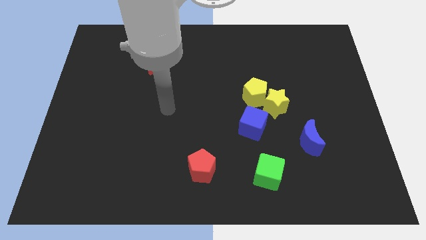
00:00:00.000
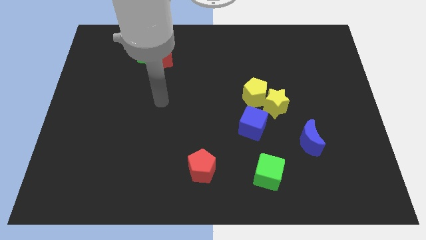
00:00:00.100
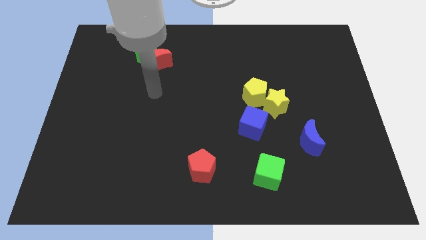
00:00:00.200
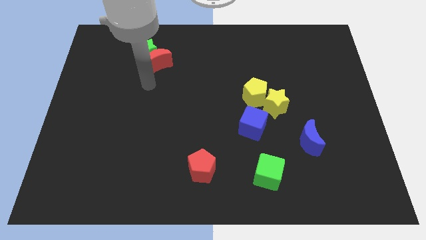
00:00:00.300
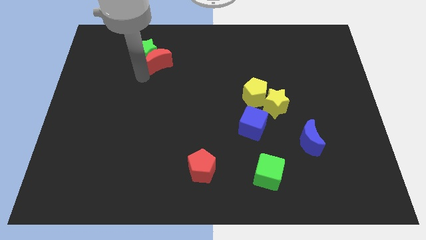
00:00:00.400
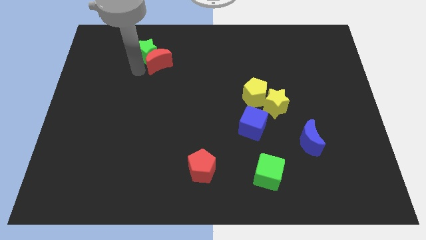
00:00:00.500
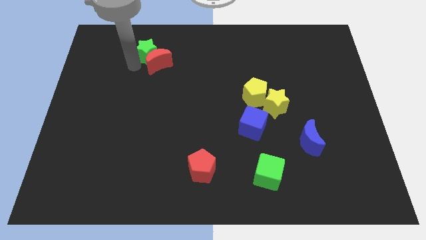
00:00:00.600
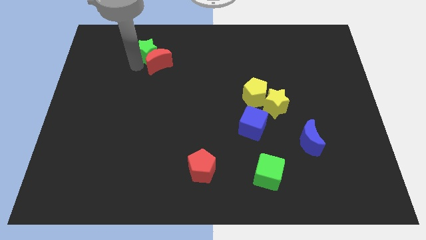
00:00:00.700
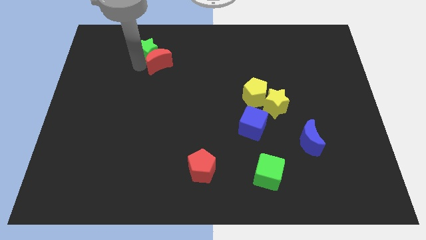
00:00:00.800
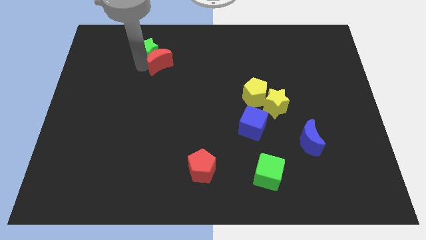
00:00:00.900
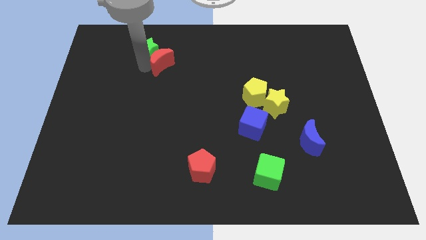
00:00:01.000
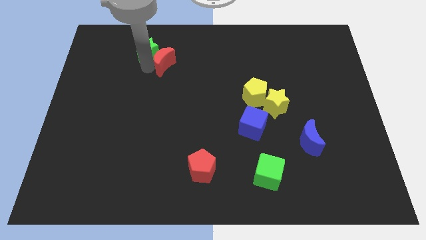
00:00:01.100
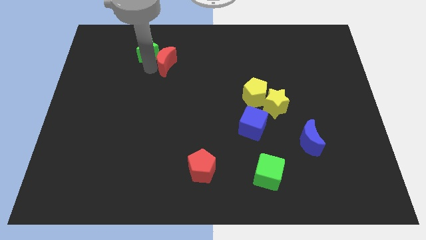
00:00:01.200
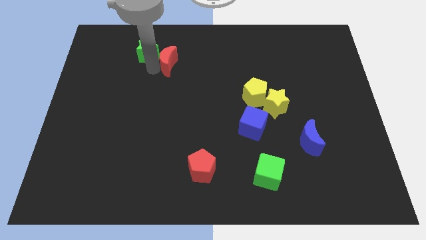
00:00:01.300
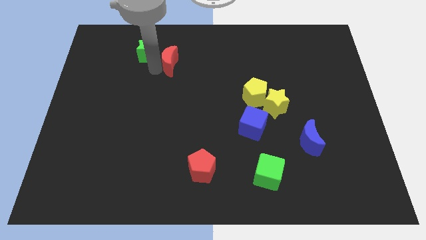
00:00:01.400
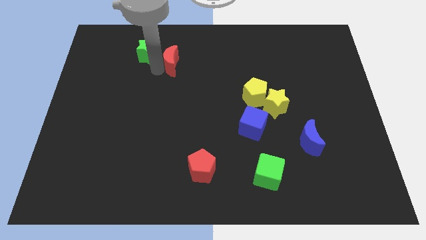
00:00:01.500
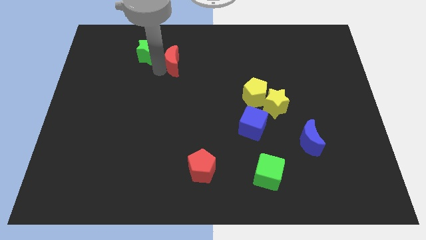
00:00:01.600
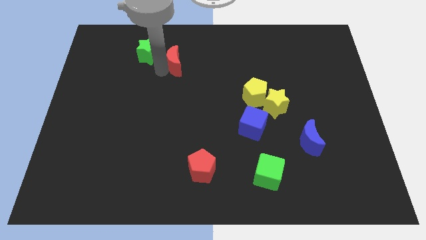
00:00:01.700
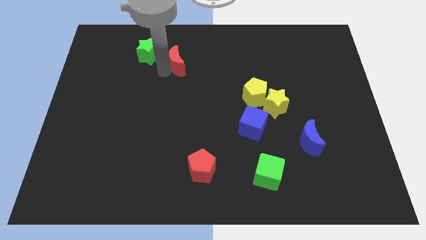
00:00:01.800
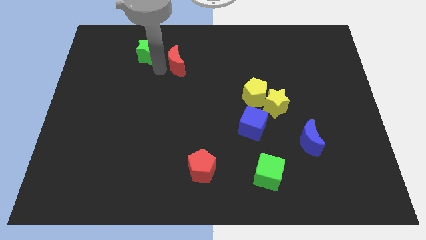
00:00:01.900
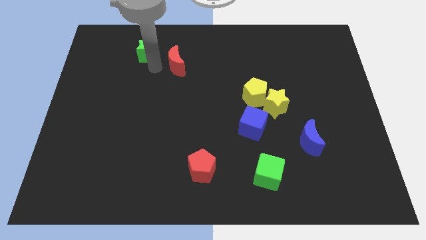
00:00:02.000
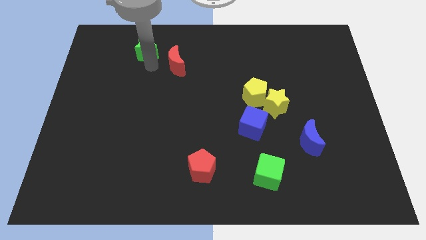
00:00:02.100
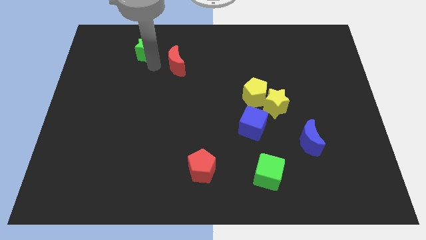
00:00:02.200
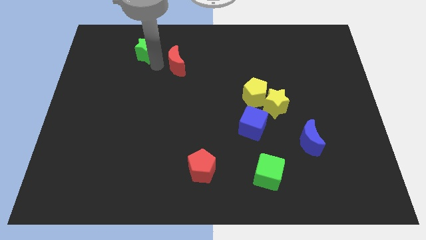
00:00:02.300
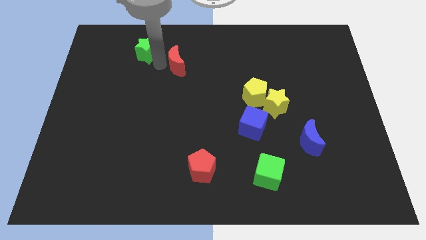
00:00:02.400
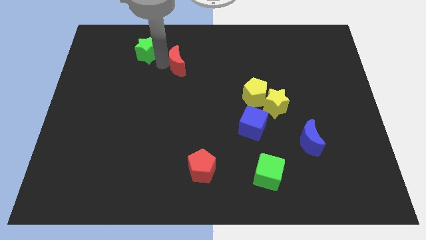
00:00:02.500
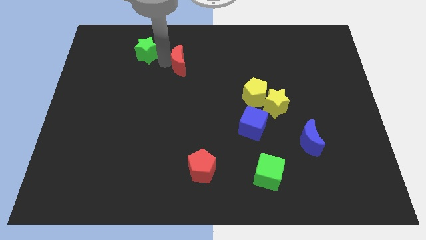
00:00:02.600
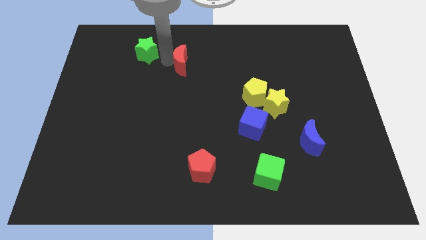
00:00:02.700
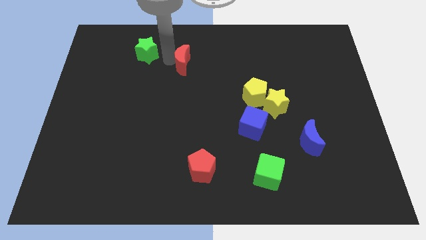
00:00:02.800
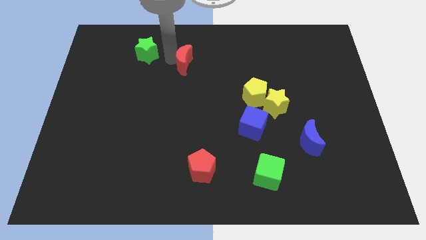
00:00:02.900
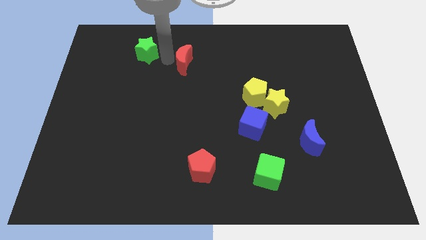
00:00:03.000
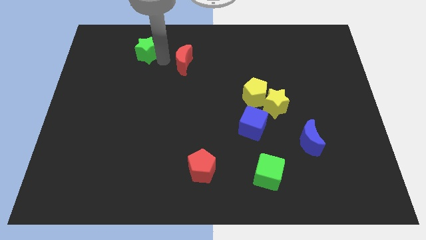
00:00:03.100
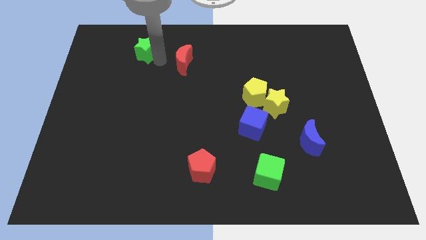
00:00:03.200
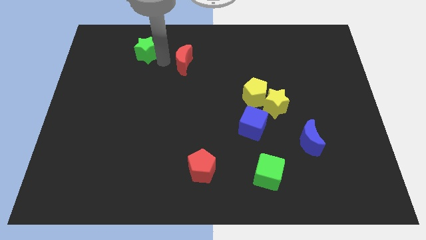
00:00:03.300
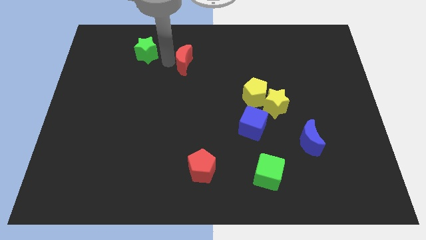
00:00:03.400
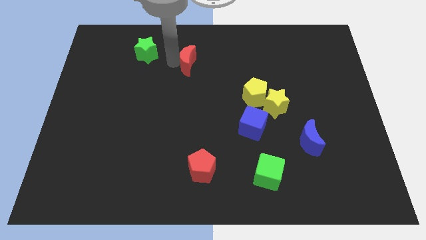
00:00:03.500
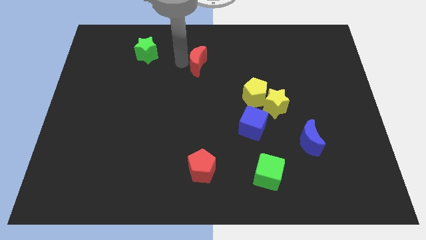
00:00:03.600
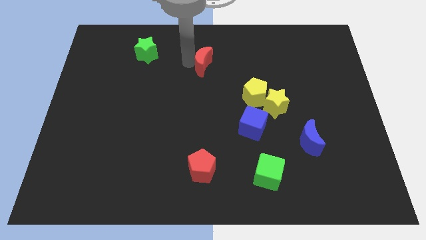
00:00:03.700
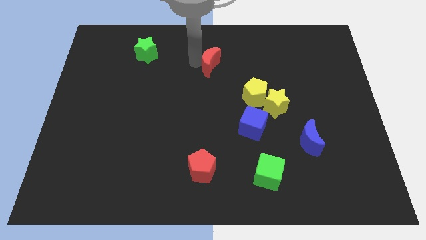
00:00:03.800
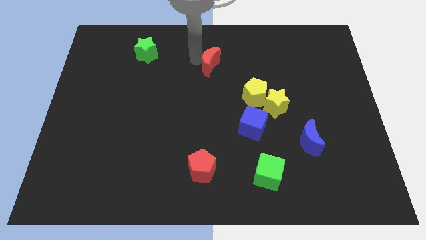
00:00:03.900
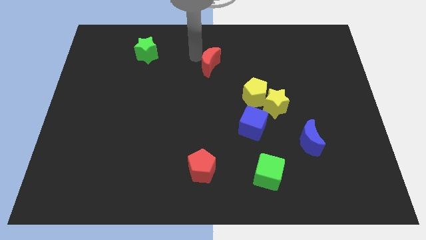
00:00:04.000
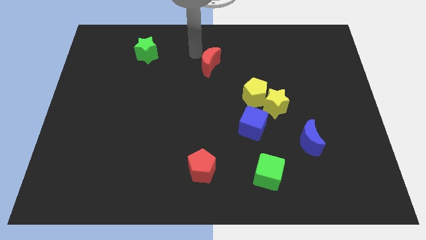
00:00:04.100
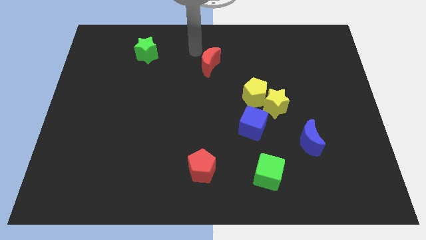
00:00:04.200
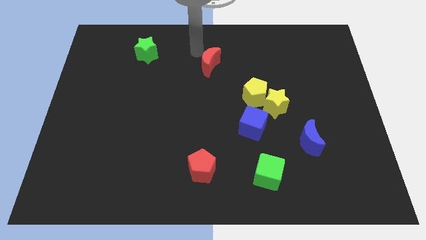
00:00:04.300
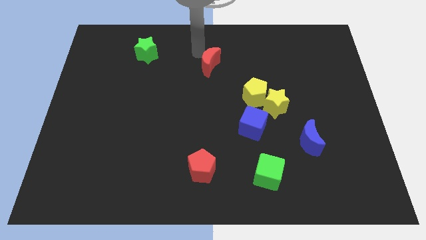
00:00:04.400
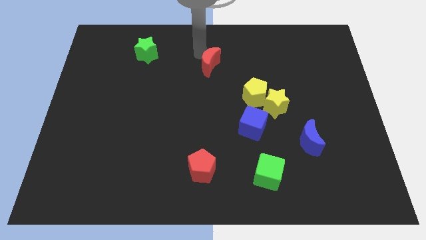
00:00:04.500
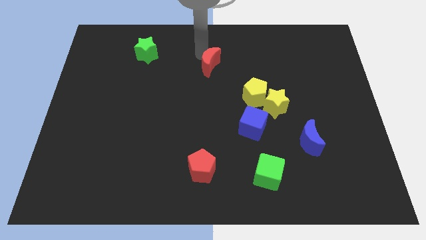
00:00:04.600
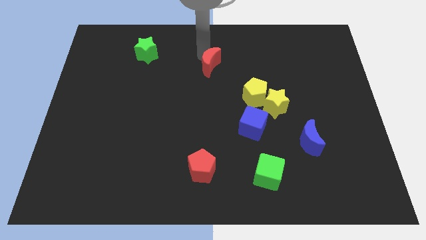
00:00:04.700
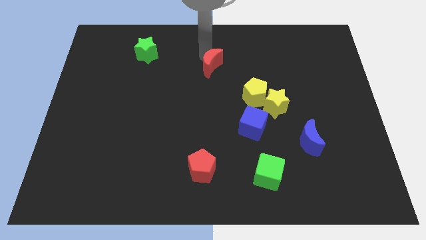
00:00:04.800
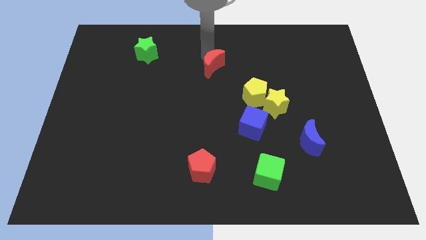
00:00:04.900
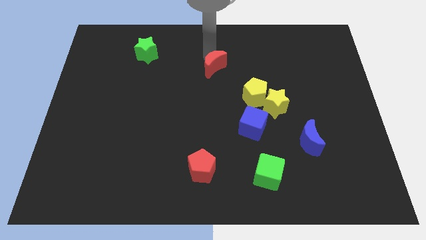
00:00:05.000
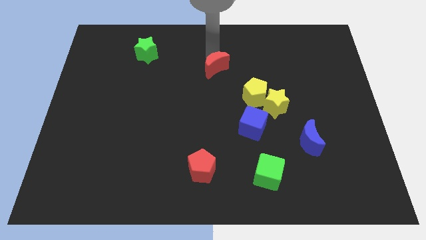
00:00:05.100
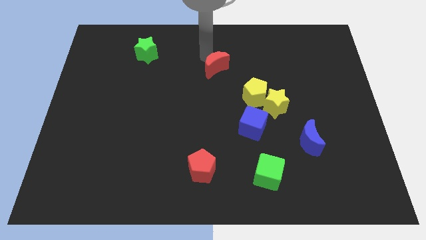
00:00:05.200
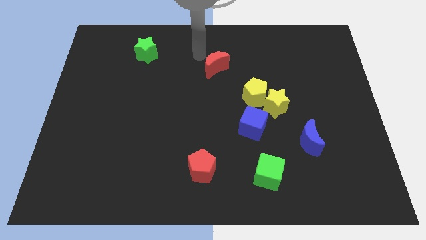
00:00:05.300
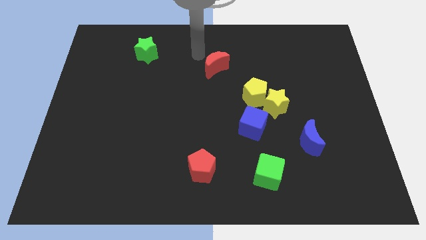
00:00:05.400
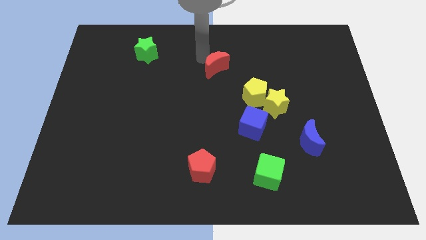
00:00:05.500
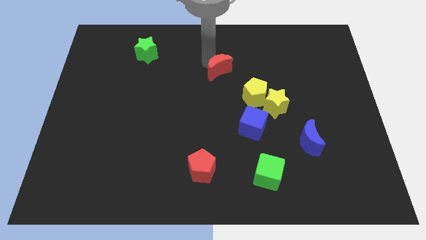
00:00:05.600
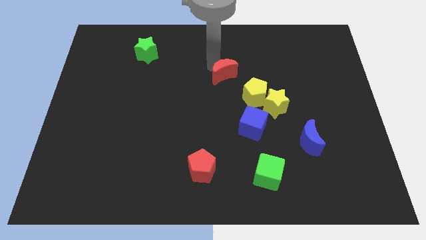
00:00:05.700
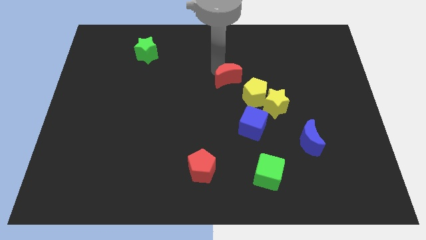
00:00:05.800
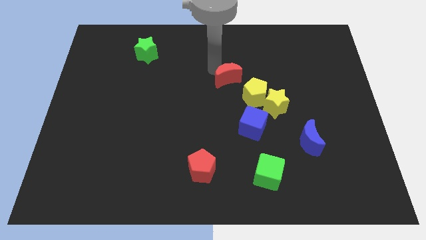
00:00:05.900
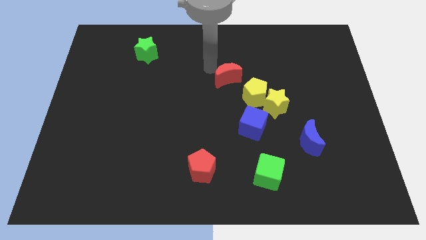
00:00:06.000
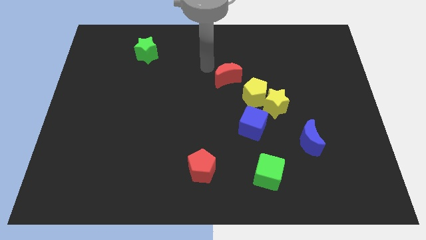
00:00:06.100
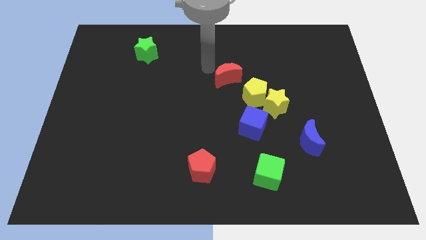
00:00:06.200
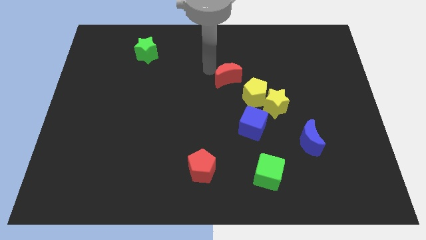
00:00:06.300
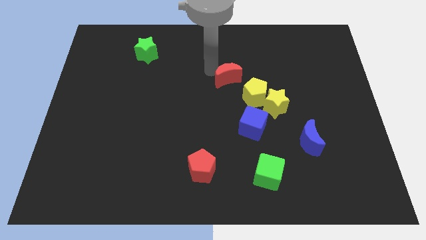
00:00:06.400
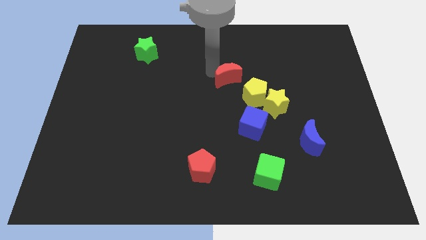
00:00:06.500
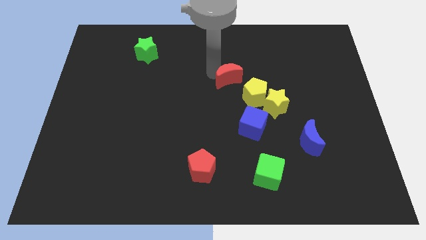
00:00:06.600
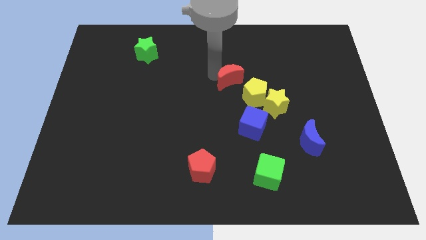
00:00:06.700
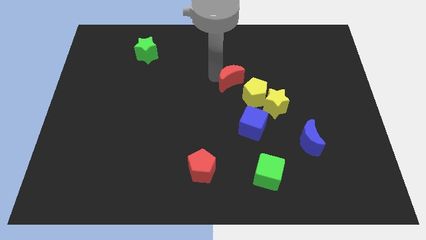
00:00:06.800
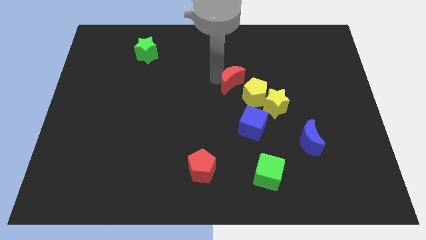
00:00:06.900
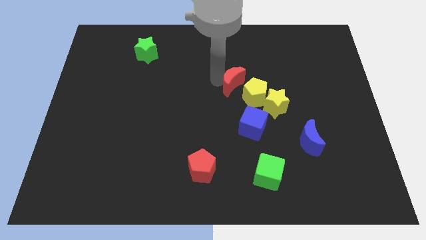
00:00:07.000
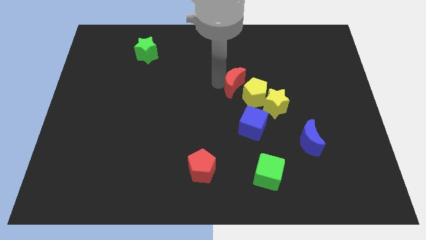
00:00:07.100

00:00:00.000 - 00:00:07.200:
put the red moon close to the yellow pentagon

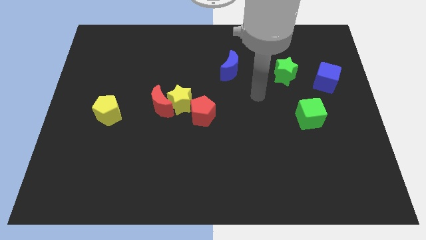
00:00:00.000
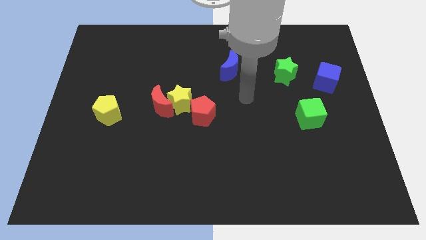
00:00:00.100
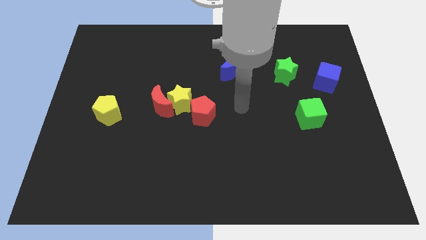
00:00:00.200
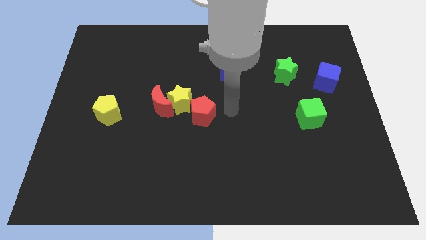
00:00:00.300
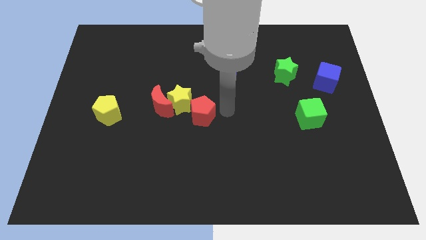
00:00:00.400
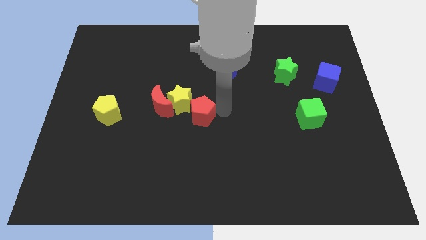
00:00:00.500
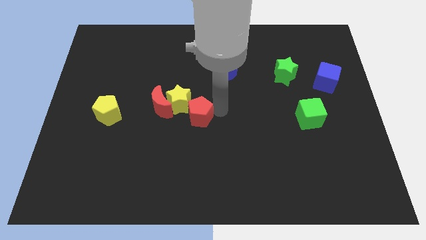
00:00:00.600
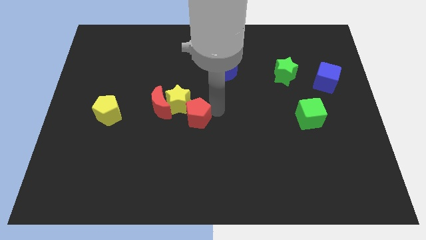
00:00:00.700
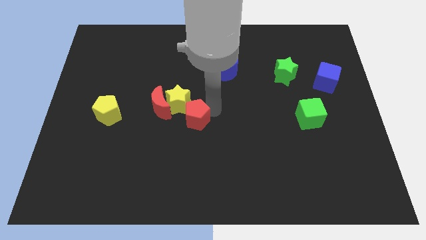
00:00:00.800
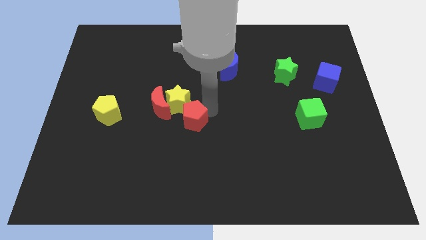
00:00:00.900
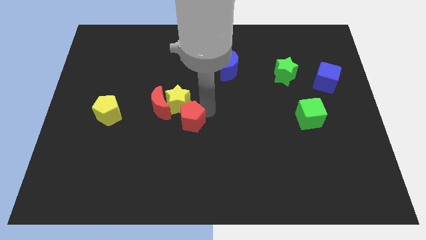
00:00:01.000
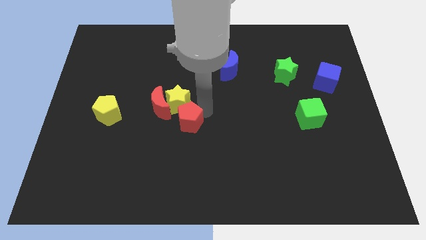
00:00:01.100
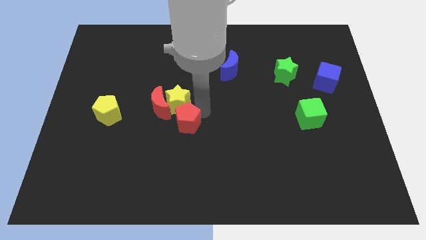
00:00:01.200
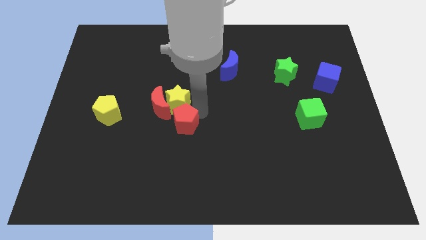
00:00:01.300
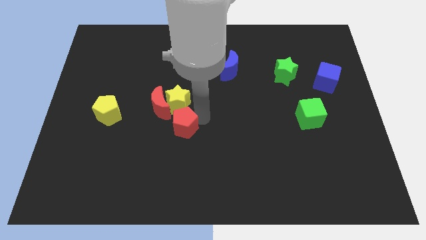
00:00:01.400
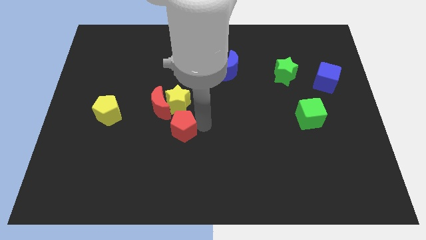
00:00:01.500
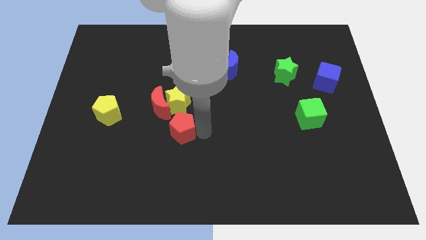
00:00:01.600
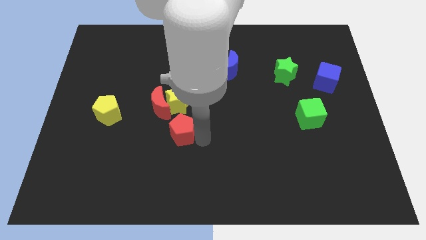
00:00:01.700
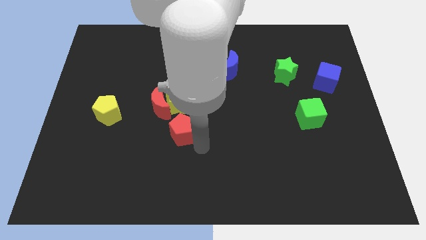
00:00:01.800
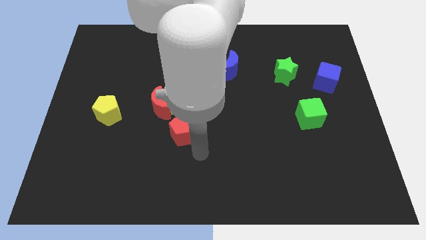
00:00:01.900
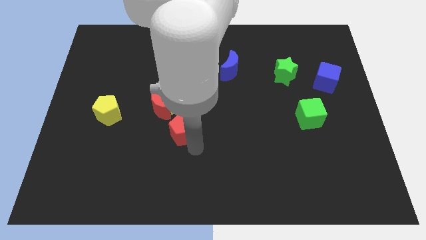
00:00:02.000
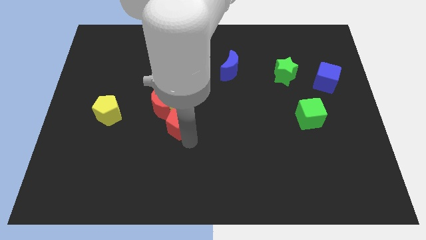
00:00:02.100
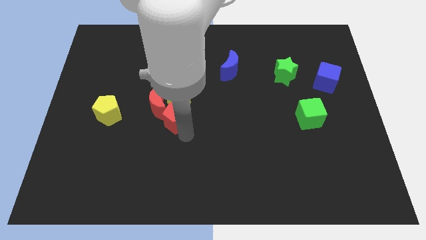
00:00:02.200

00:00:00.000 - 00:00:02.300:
push the red pentagon to the red moon
